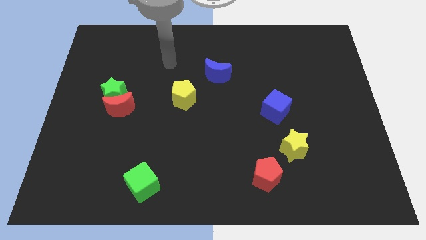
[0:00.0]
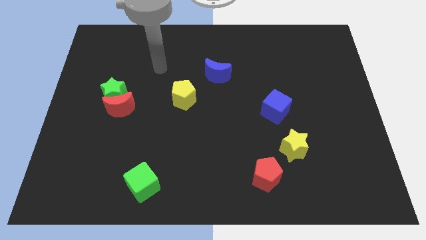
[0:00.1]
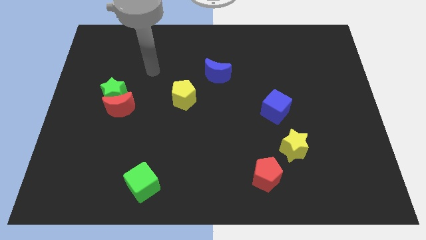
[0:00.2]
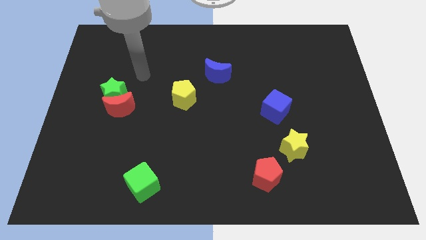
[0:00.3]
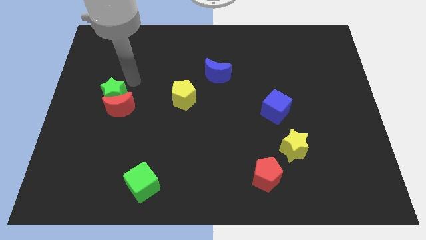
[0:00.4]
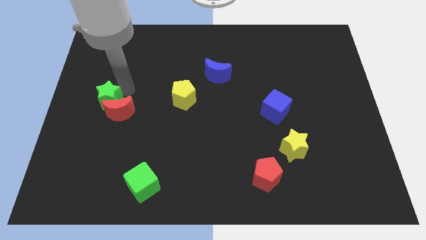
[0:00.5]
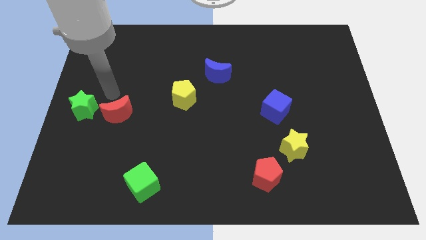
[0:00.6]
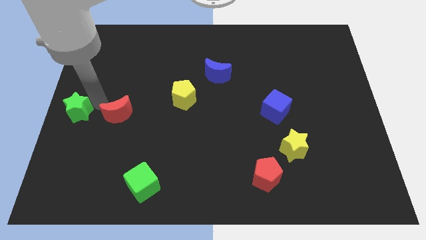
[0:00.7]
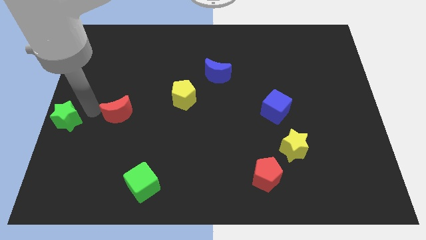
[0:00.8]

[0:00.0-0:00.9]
separate the red moon from the green star

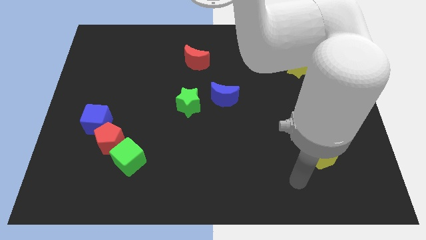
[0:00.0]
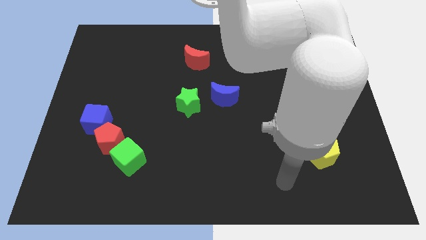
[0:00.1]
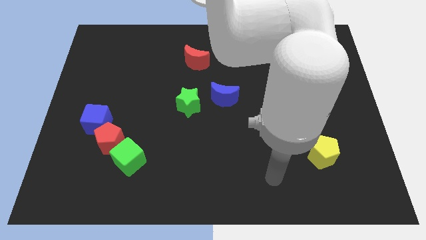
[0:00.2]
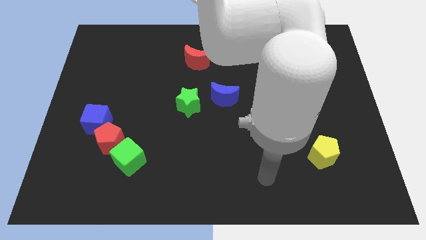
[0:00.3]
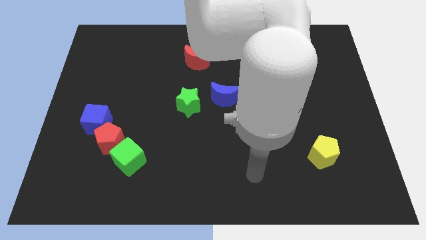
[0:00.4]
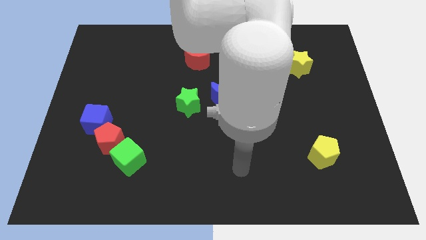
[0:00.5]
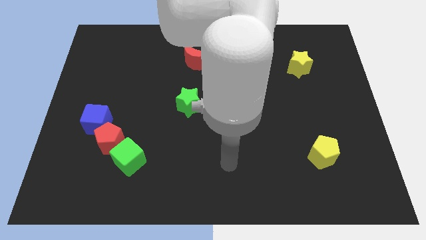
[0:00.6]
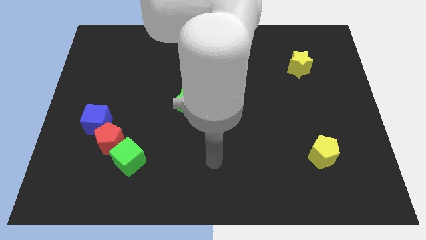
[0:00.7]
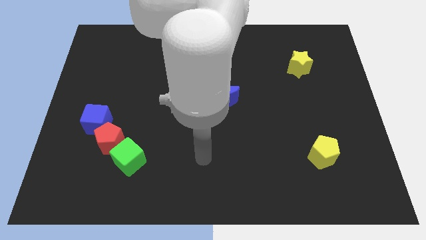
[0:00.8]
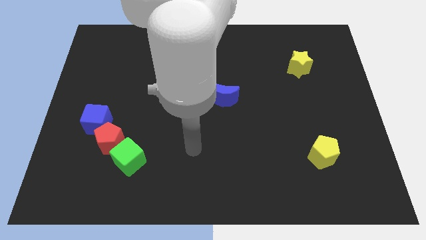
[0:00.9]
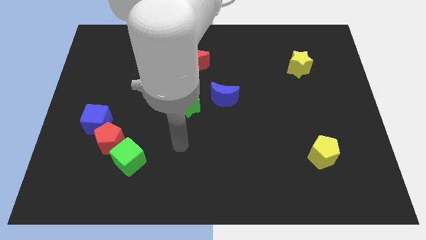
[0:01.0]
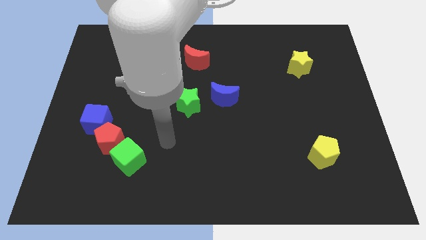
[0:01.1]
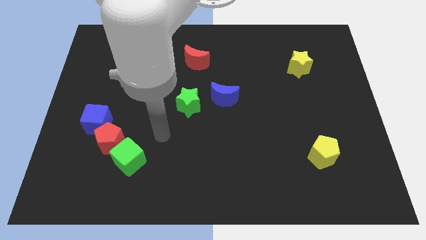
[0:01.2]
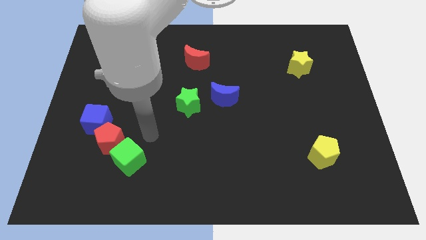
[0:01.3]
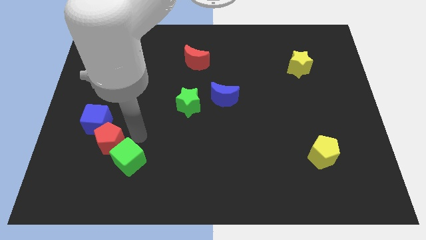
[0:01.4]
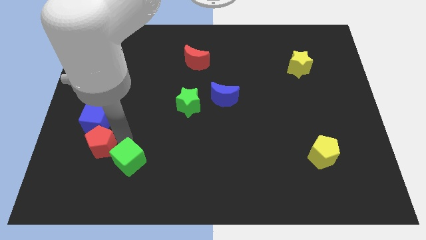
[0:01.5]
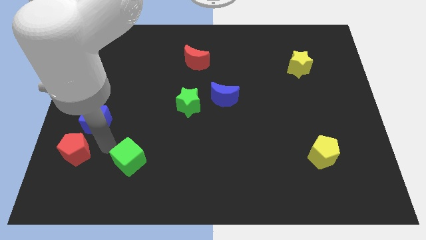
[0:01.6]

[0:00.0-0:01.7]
pull the green cube apart from the red pentagon

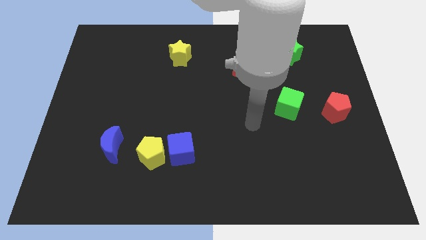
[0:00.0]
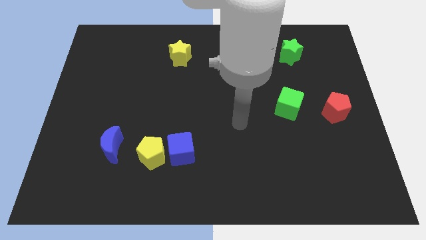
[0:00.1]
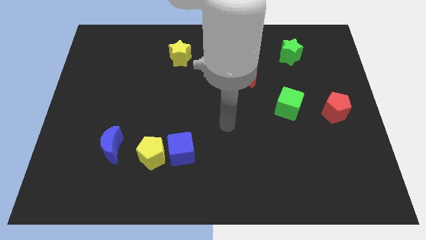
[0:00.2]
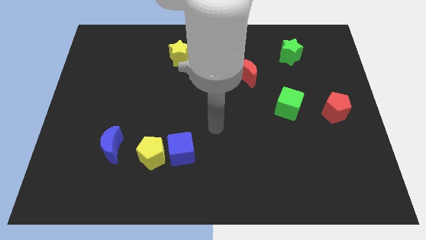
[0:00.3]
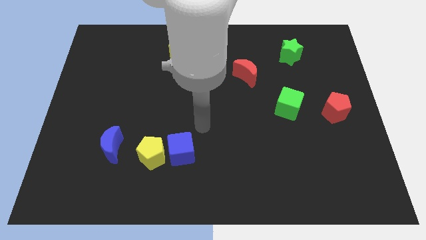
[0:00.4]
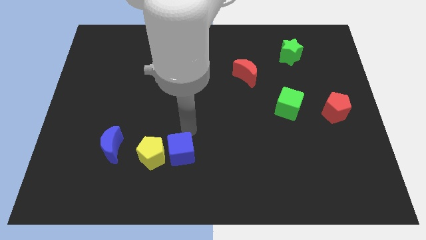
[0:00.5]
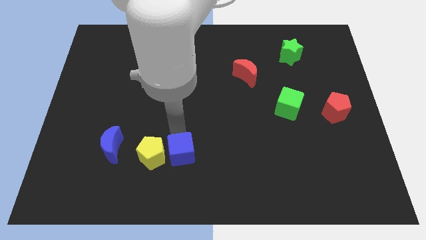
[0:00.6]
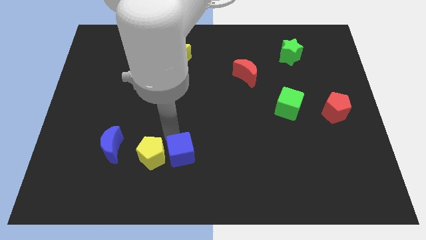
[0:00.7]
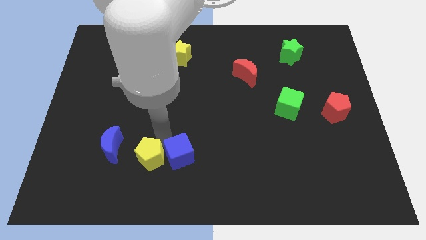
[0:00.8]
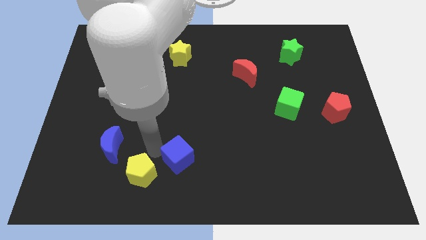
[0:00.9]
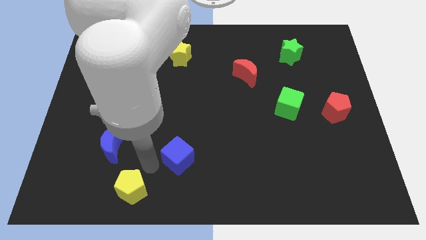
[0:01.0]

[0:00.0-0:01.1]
separate the blue cube from the yellow pentagon

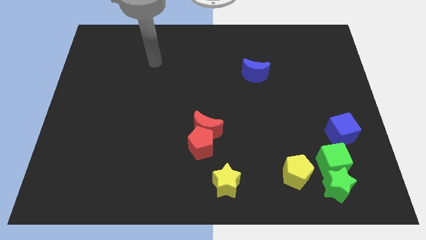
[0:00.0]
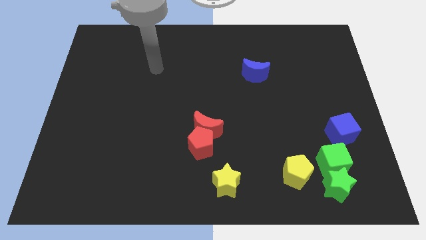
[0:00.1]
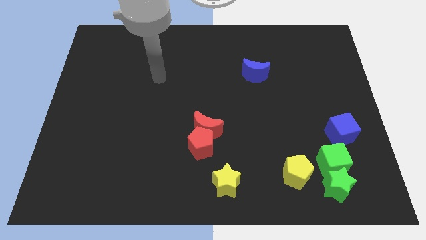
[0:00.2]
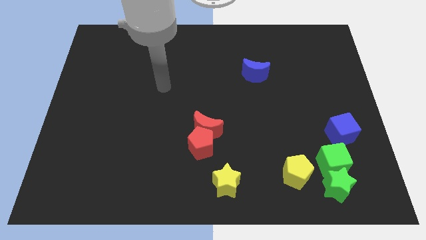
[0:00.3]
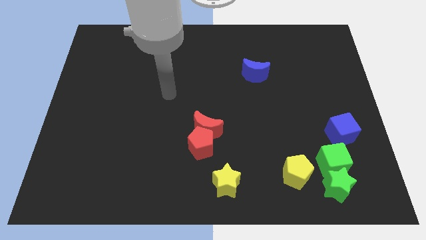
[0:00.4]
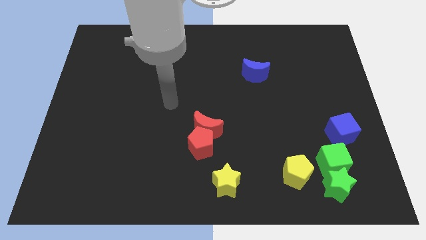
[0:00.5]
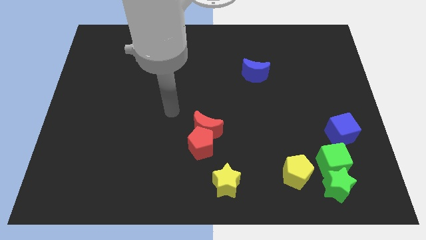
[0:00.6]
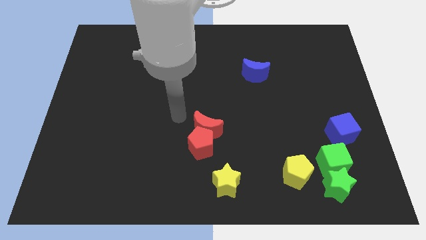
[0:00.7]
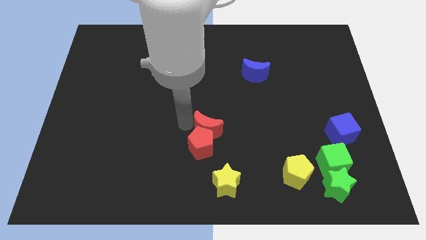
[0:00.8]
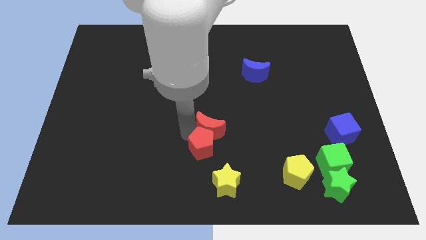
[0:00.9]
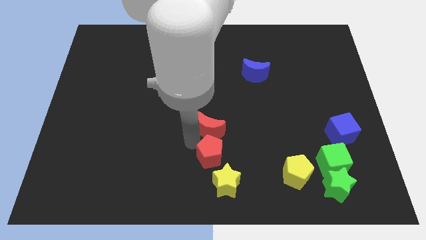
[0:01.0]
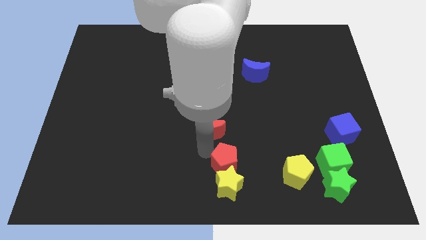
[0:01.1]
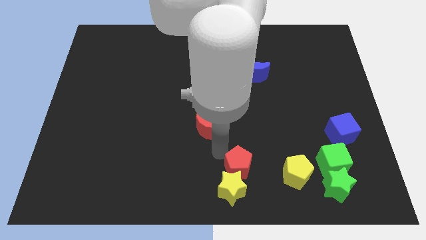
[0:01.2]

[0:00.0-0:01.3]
move the red moon away from the red pentagon

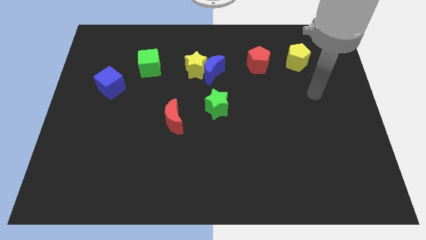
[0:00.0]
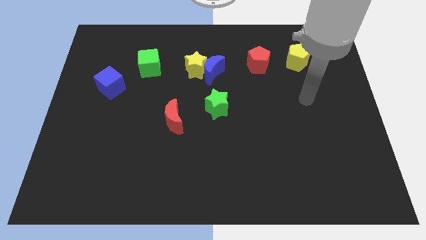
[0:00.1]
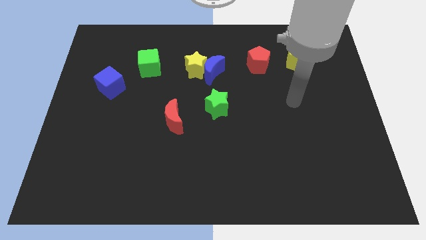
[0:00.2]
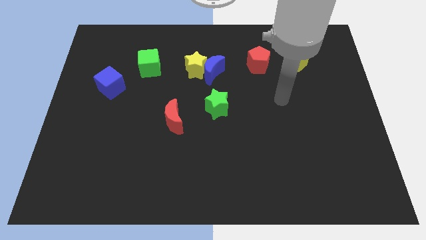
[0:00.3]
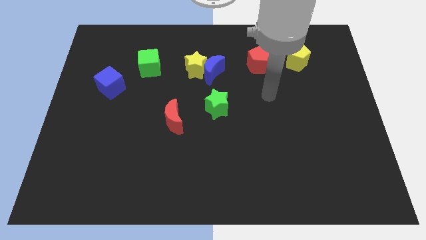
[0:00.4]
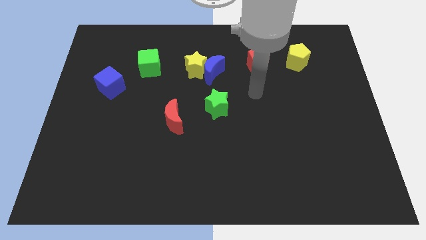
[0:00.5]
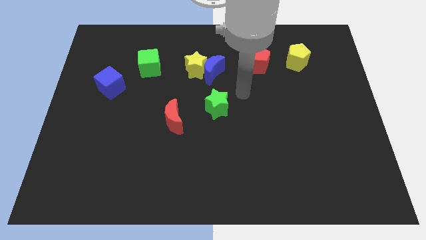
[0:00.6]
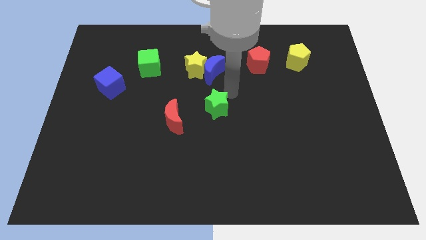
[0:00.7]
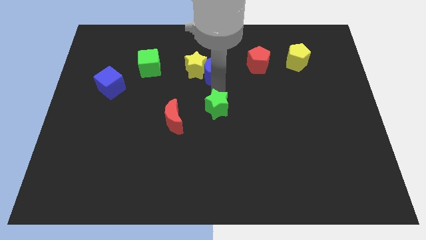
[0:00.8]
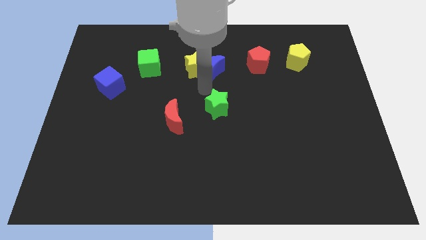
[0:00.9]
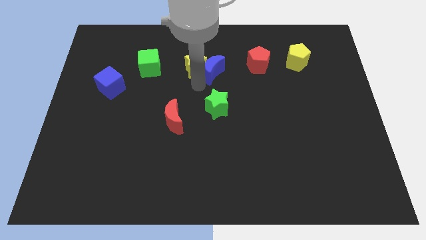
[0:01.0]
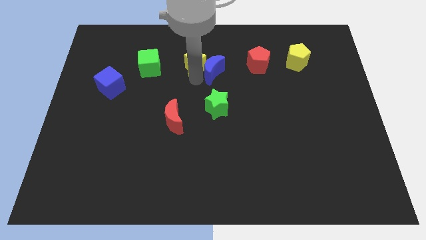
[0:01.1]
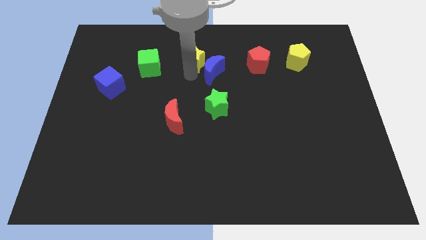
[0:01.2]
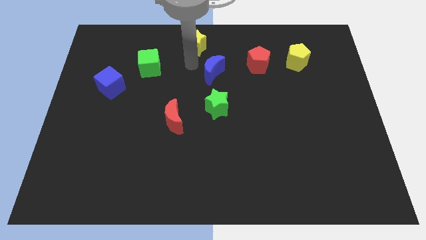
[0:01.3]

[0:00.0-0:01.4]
move the blue moon away from the yellow star

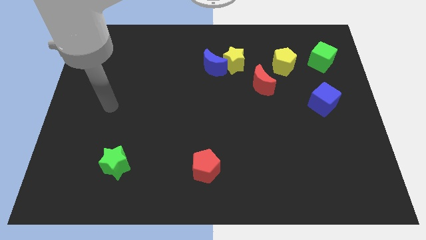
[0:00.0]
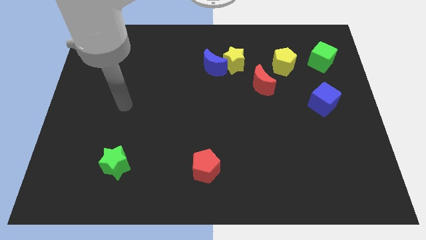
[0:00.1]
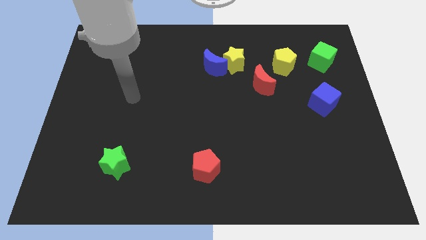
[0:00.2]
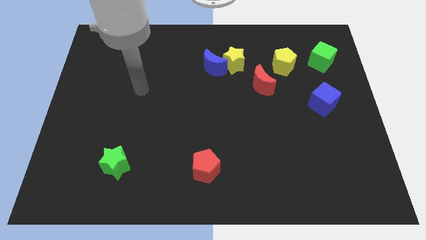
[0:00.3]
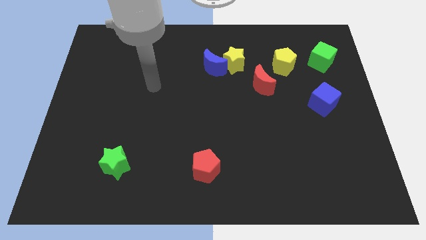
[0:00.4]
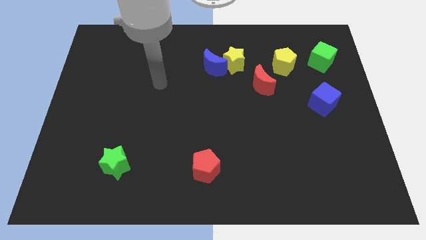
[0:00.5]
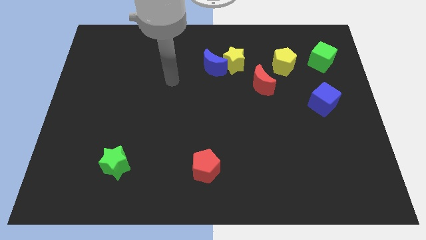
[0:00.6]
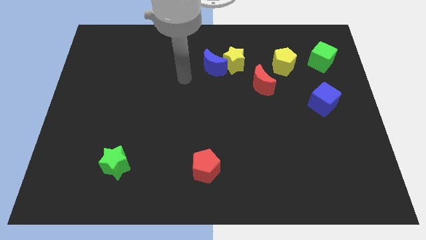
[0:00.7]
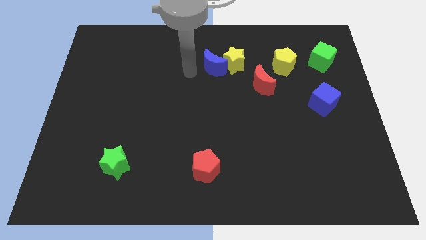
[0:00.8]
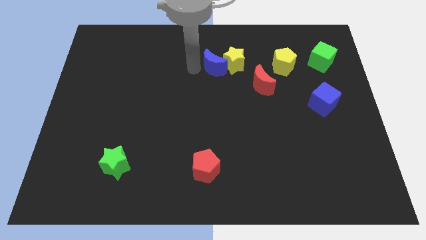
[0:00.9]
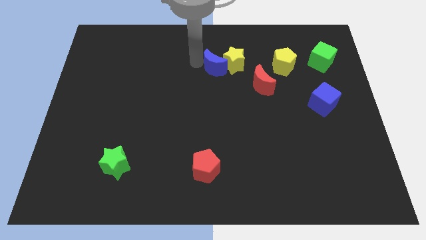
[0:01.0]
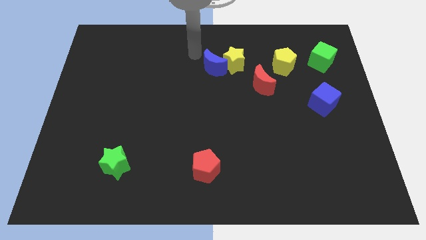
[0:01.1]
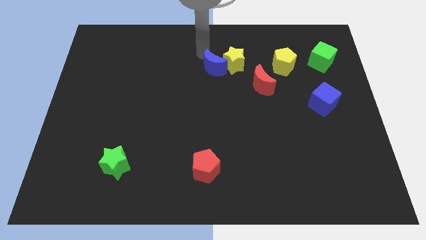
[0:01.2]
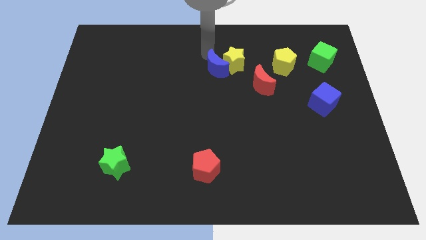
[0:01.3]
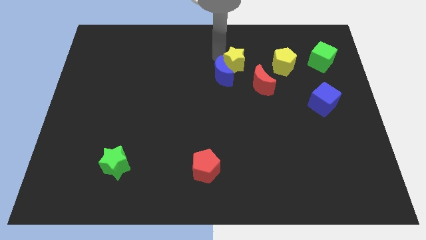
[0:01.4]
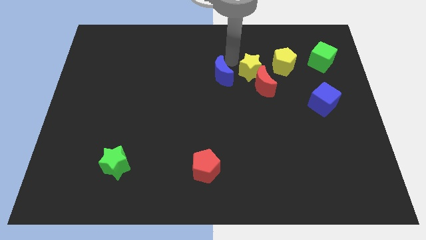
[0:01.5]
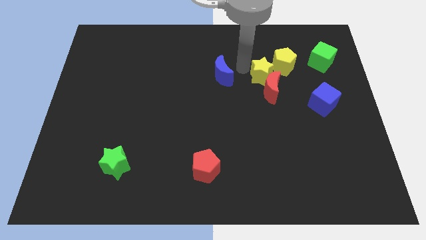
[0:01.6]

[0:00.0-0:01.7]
separate the blue moon from the yellow star

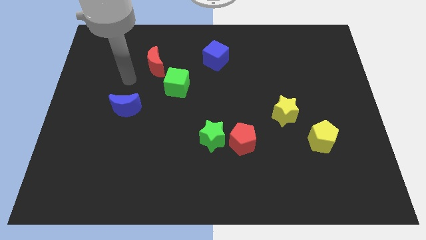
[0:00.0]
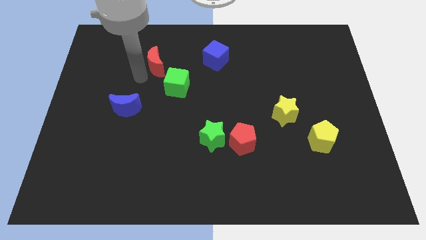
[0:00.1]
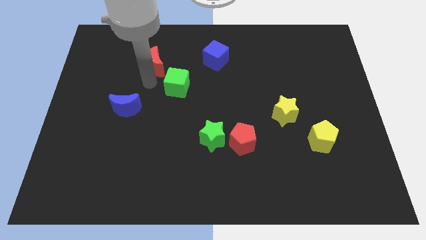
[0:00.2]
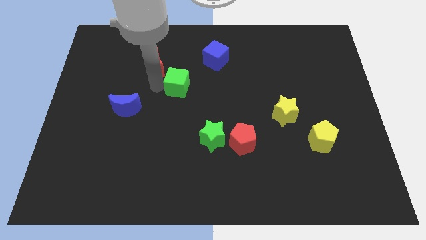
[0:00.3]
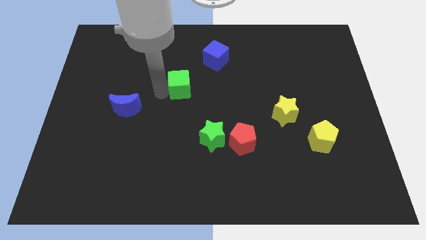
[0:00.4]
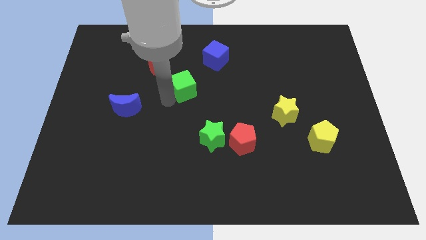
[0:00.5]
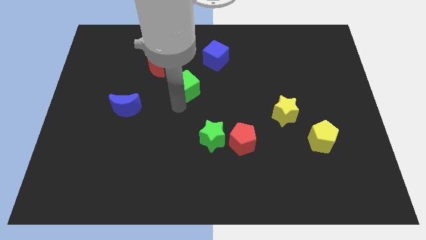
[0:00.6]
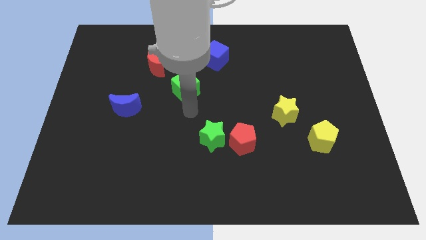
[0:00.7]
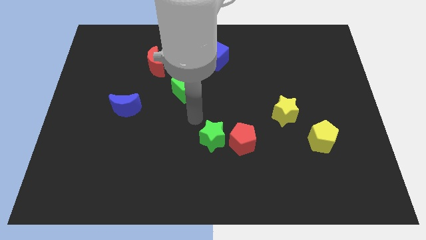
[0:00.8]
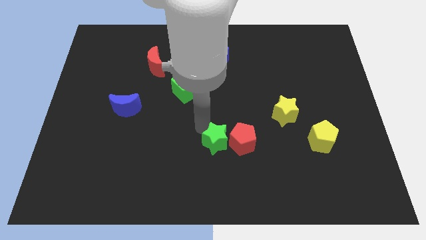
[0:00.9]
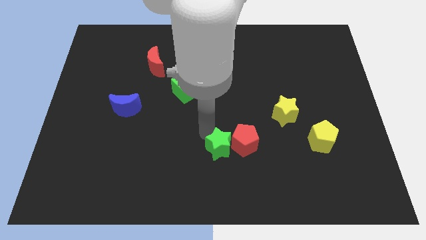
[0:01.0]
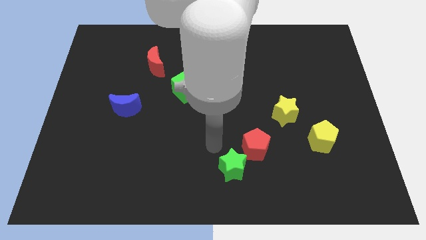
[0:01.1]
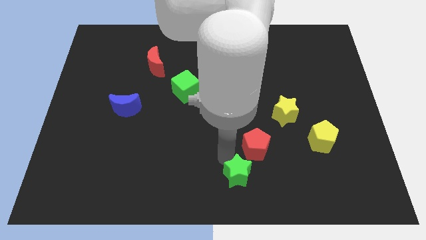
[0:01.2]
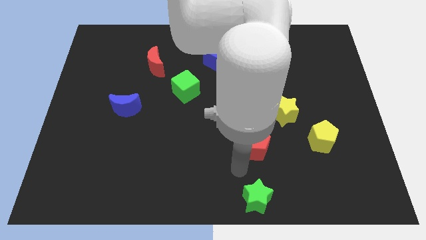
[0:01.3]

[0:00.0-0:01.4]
pull the red pentagon apart from the green star
